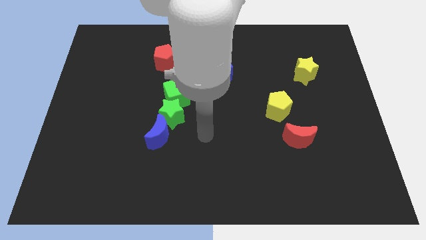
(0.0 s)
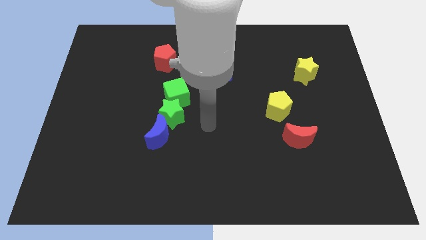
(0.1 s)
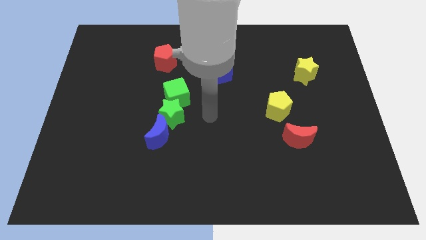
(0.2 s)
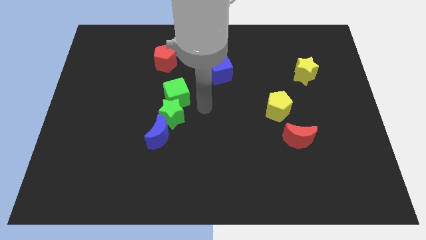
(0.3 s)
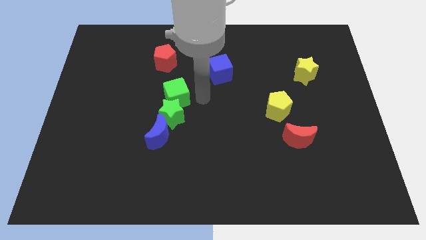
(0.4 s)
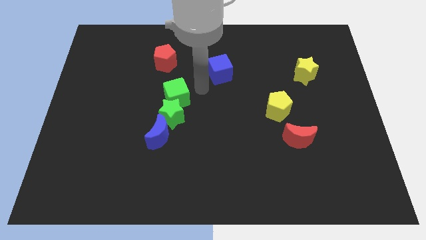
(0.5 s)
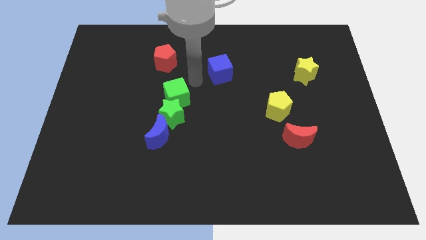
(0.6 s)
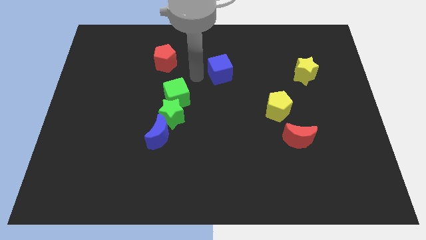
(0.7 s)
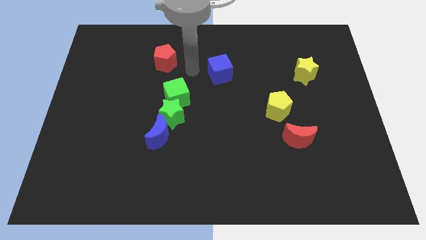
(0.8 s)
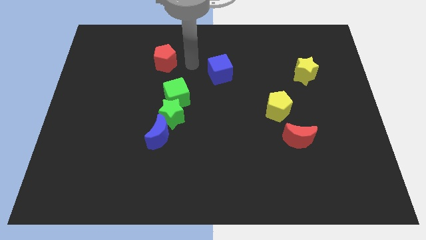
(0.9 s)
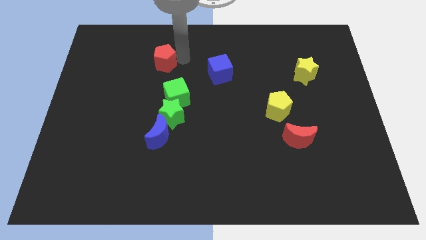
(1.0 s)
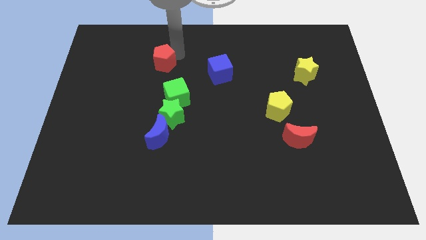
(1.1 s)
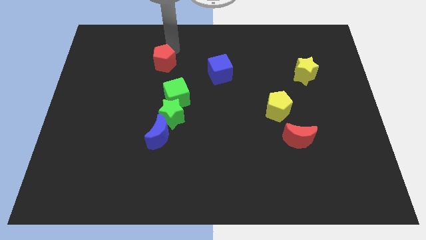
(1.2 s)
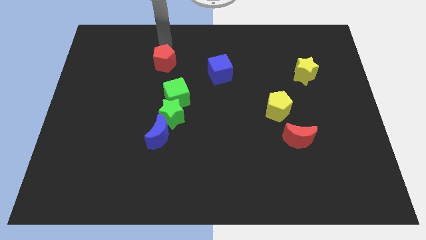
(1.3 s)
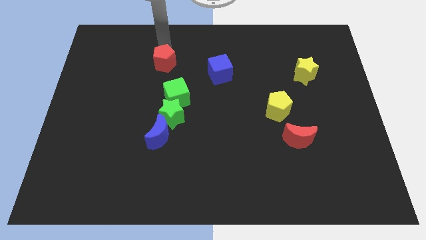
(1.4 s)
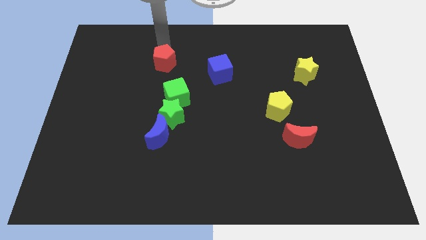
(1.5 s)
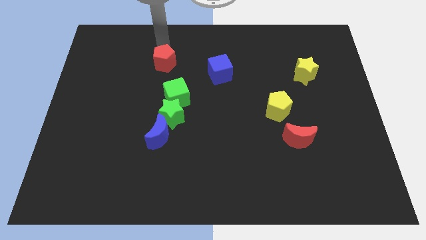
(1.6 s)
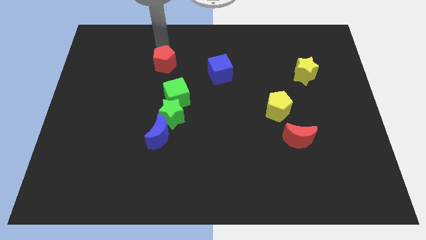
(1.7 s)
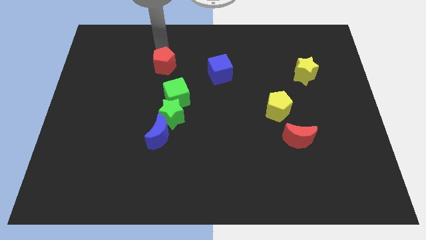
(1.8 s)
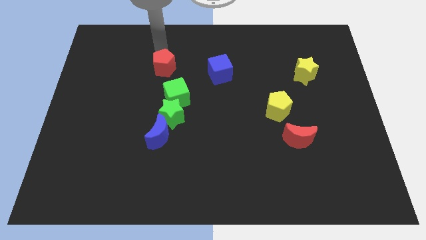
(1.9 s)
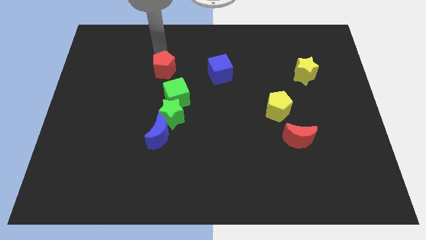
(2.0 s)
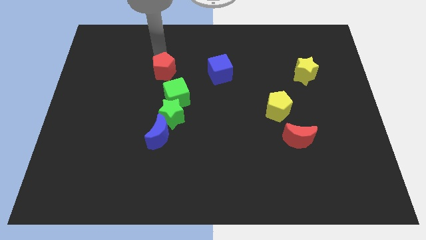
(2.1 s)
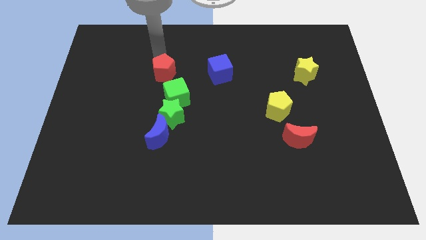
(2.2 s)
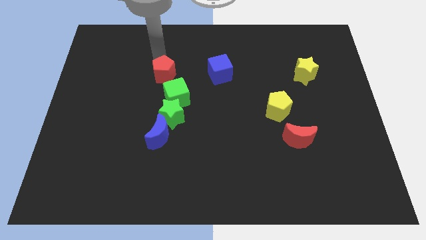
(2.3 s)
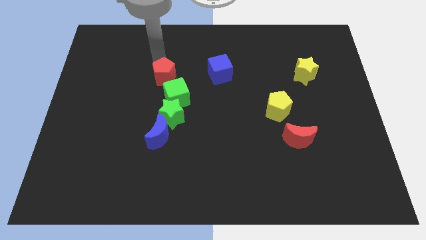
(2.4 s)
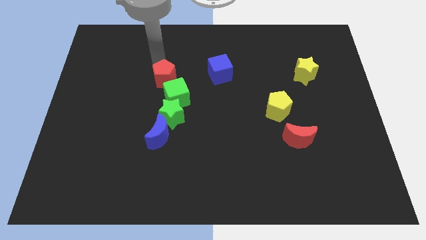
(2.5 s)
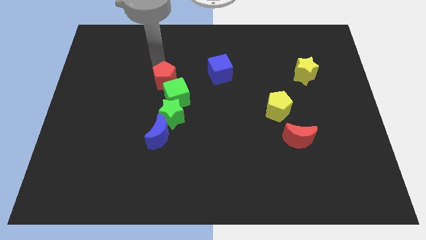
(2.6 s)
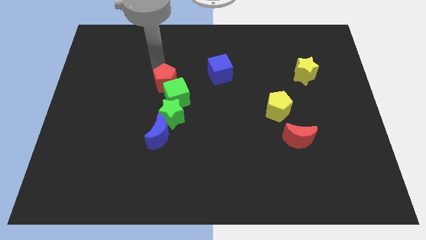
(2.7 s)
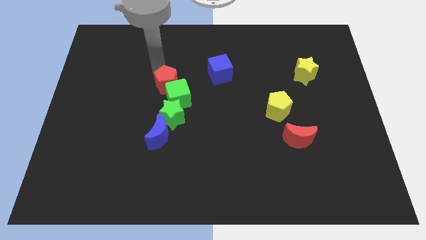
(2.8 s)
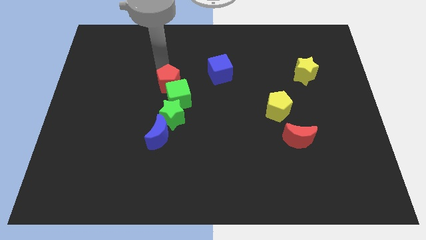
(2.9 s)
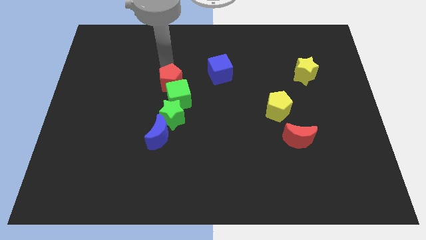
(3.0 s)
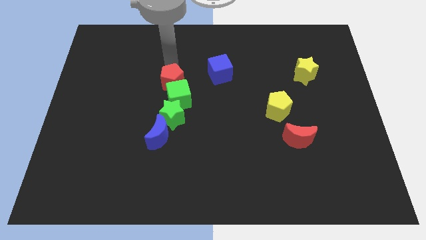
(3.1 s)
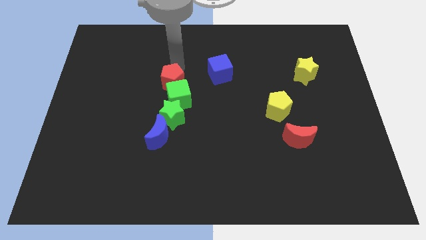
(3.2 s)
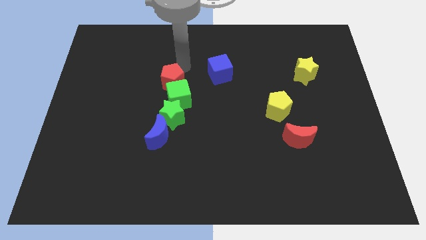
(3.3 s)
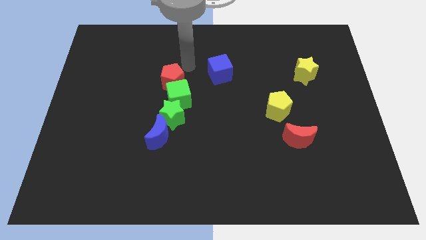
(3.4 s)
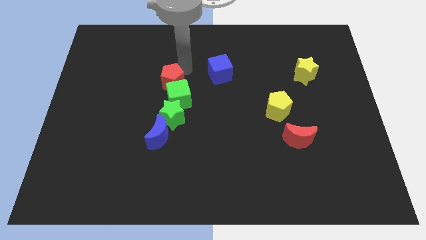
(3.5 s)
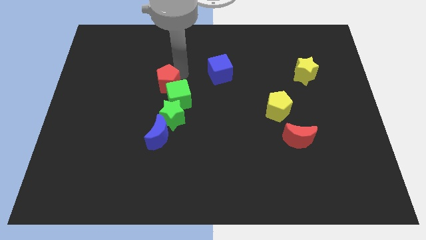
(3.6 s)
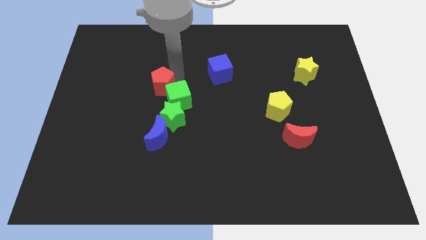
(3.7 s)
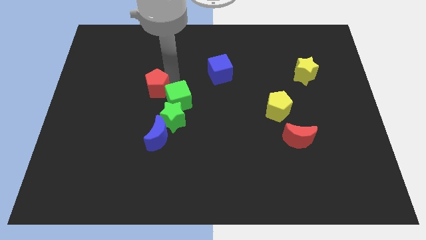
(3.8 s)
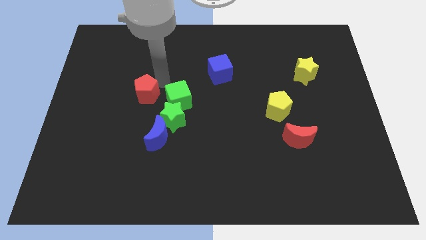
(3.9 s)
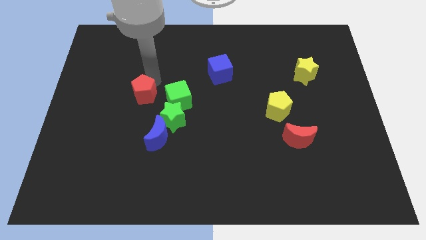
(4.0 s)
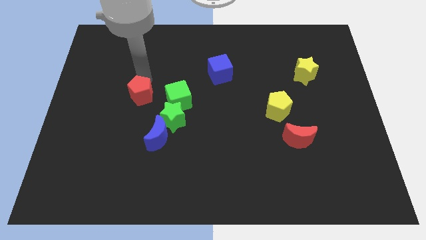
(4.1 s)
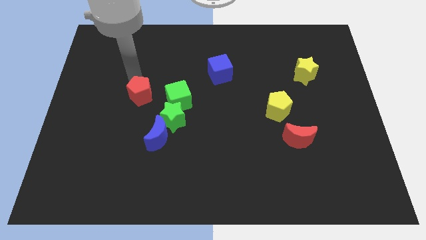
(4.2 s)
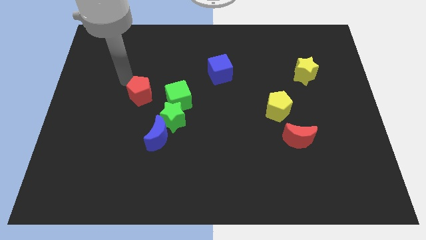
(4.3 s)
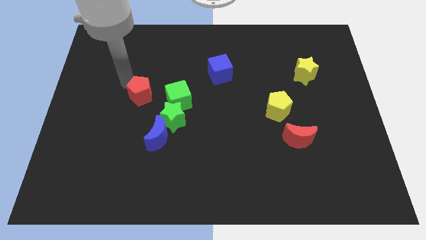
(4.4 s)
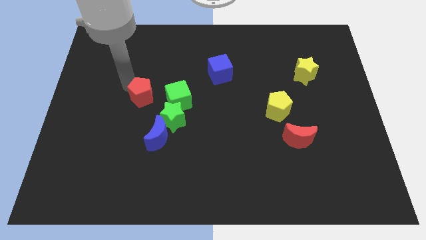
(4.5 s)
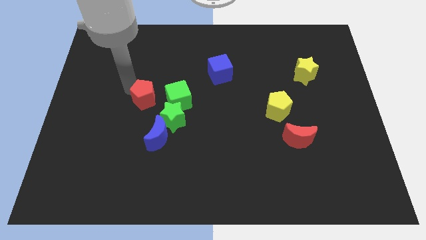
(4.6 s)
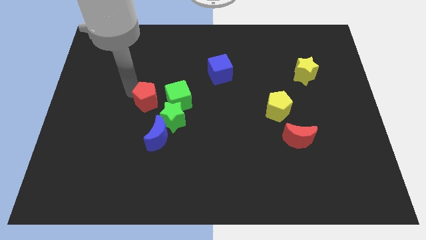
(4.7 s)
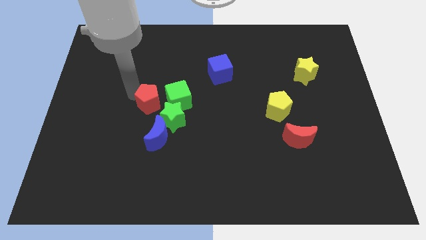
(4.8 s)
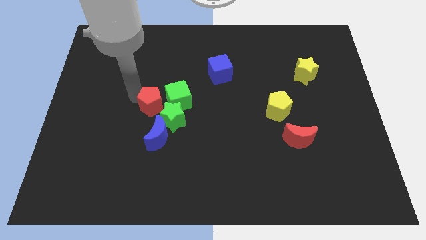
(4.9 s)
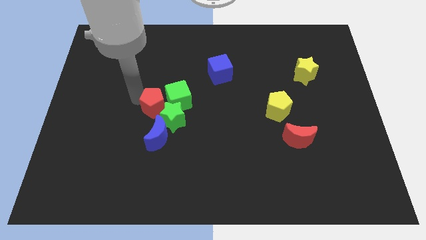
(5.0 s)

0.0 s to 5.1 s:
put the red pentagon close to the green star

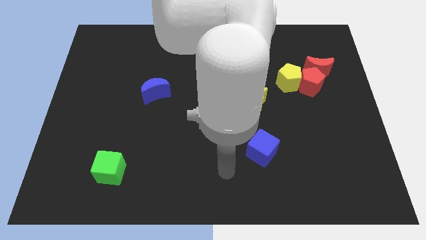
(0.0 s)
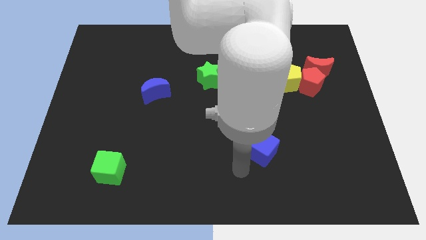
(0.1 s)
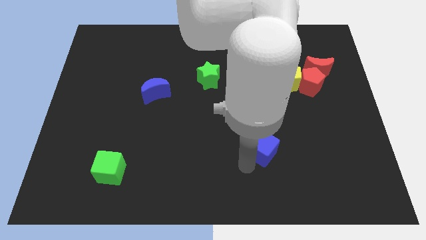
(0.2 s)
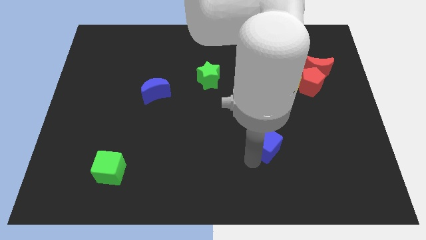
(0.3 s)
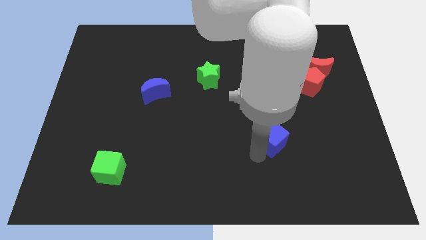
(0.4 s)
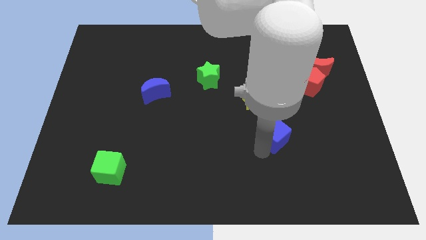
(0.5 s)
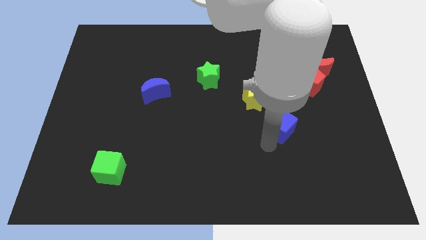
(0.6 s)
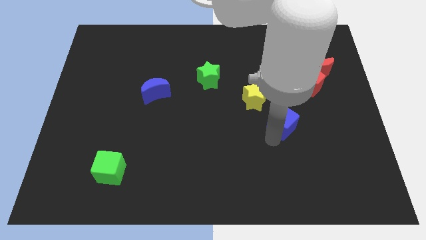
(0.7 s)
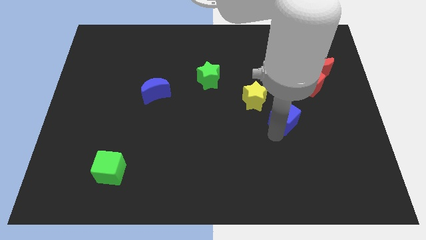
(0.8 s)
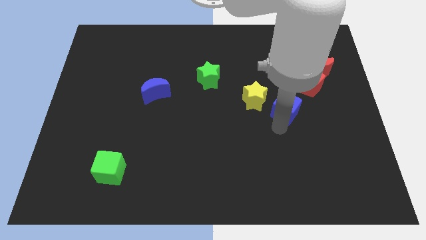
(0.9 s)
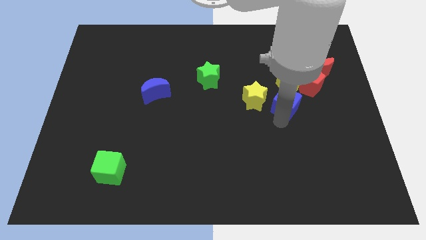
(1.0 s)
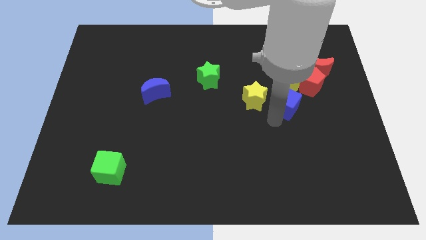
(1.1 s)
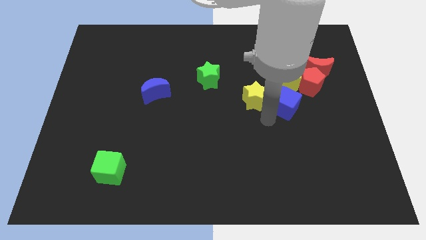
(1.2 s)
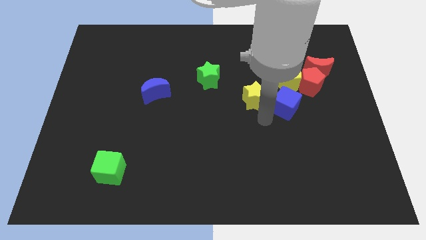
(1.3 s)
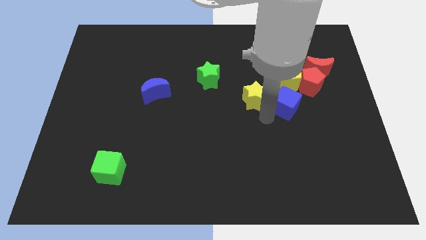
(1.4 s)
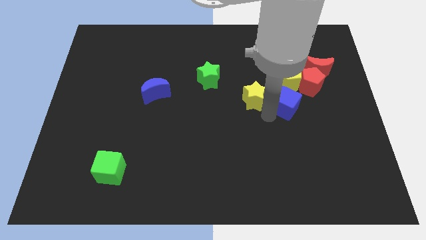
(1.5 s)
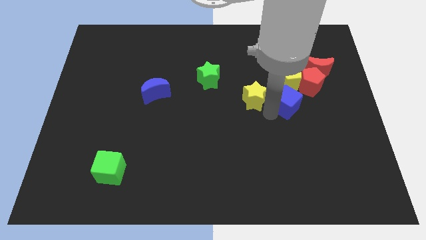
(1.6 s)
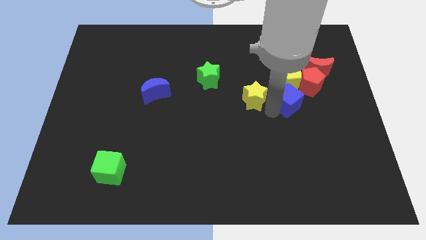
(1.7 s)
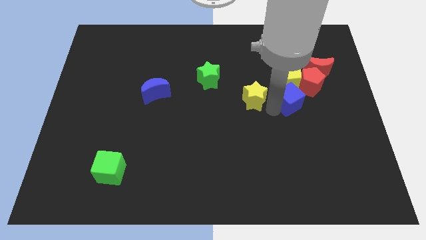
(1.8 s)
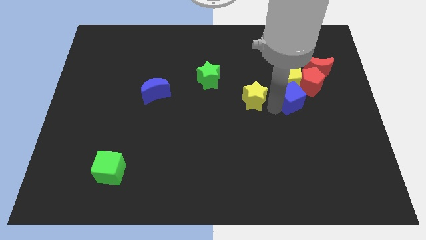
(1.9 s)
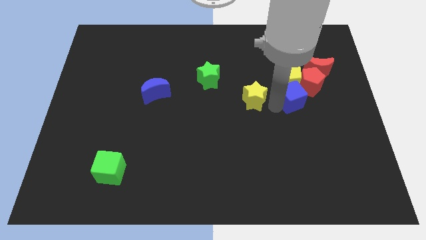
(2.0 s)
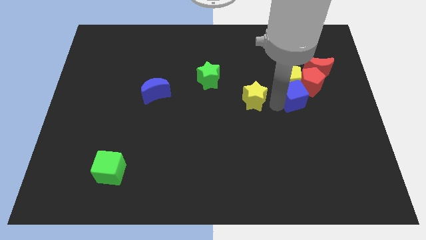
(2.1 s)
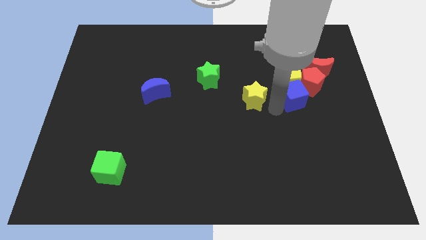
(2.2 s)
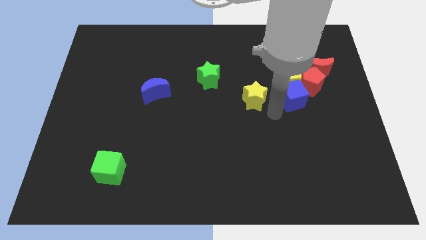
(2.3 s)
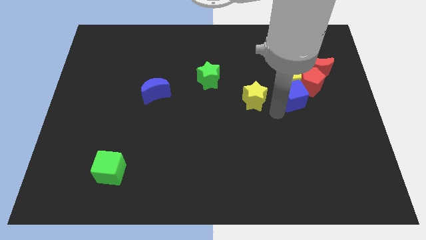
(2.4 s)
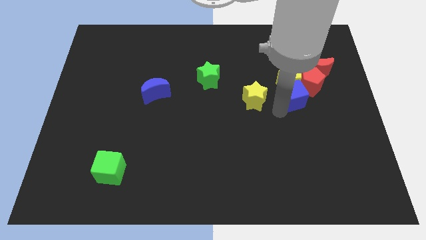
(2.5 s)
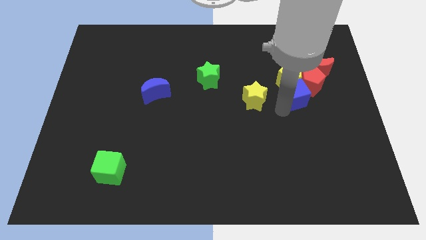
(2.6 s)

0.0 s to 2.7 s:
put the blue cube towards the red pentagon

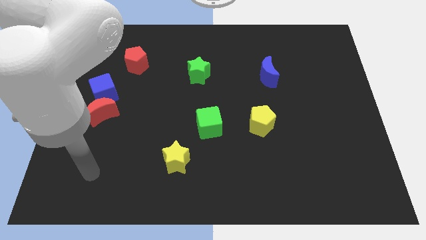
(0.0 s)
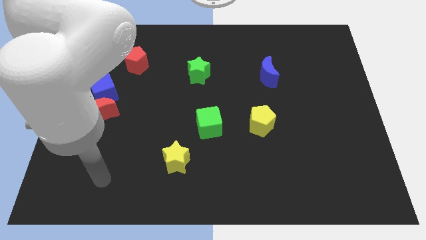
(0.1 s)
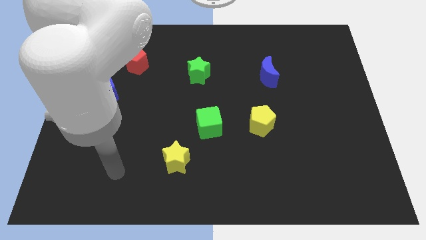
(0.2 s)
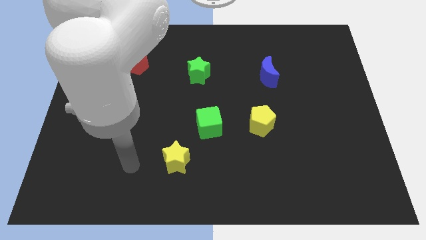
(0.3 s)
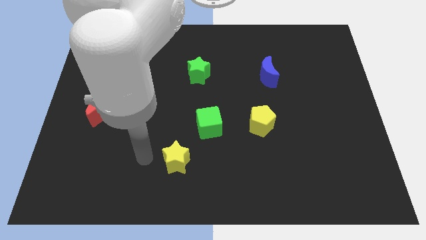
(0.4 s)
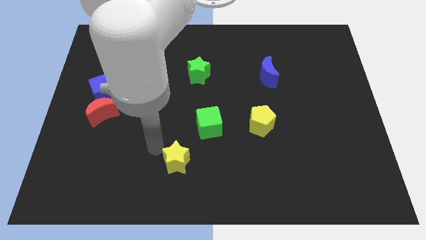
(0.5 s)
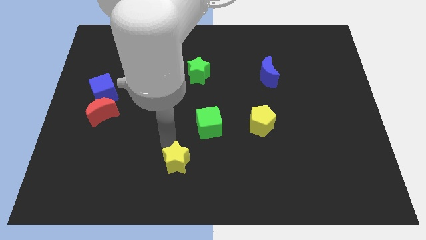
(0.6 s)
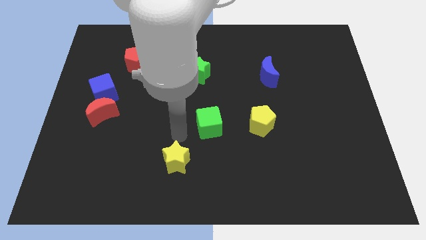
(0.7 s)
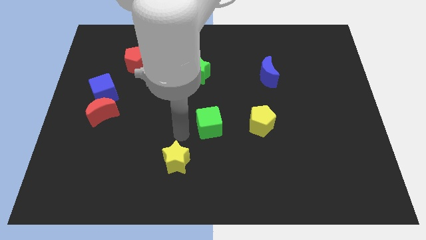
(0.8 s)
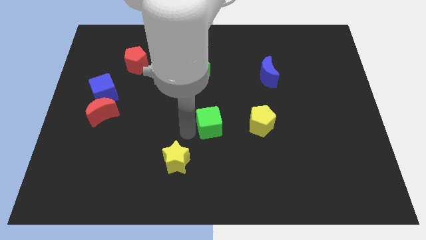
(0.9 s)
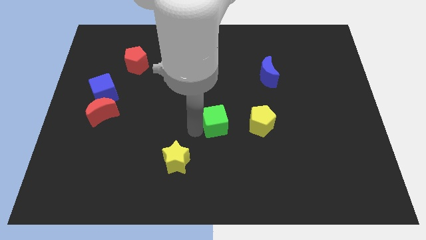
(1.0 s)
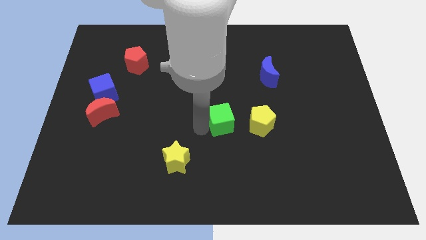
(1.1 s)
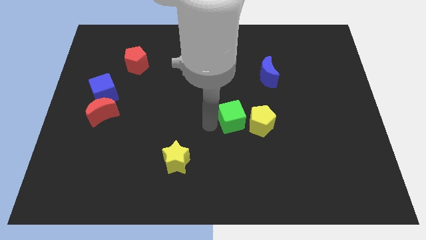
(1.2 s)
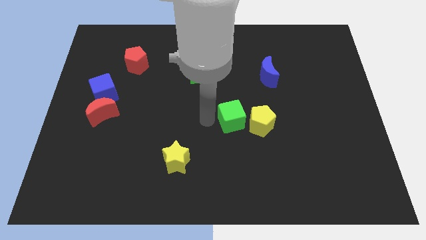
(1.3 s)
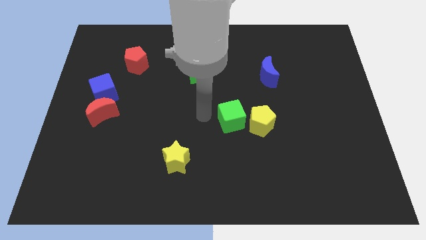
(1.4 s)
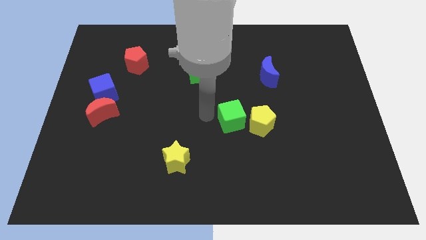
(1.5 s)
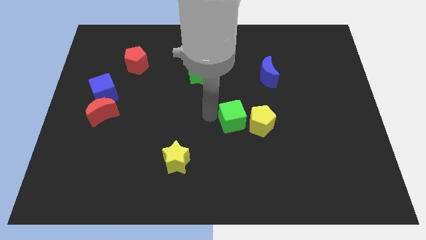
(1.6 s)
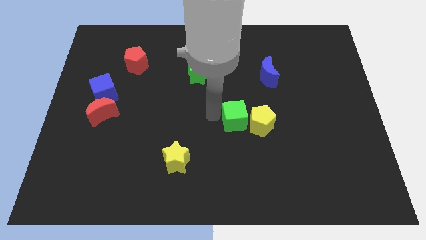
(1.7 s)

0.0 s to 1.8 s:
put the green cube to the yellow pentagon
